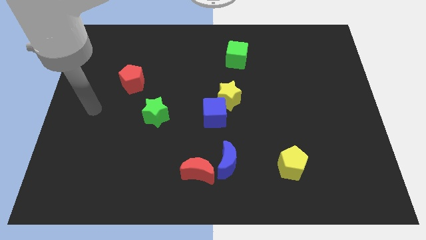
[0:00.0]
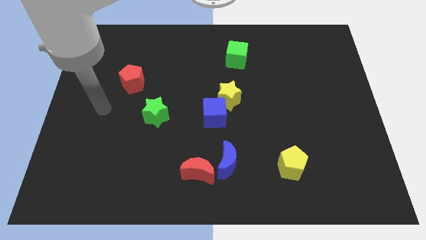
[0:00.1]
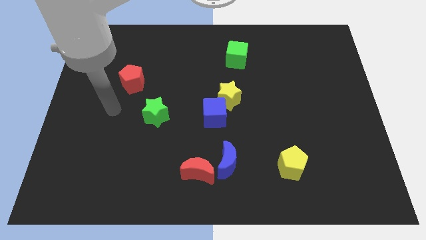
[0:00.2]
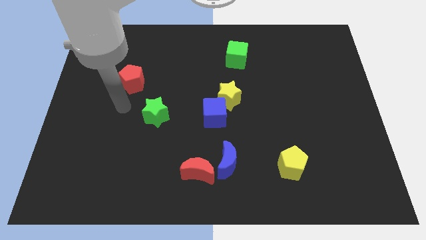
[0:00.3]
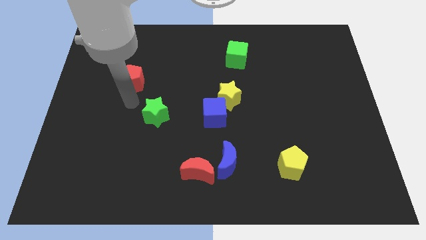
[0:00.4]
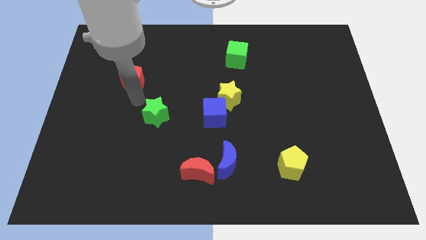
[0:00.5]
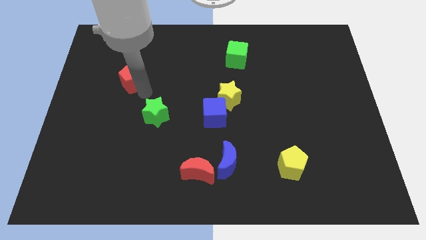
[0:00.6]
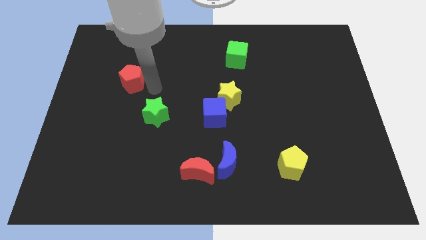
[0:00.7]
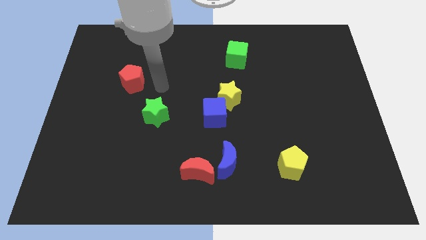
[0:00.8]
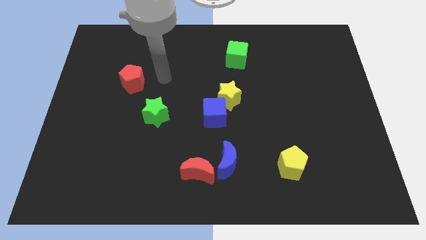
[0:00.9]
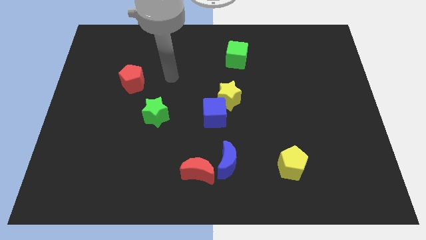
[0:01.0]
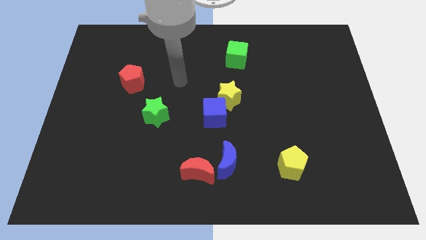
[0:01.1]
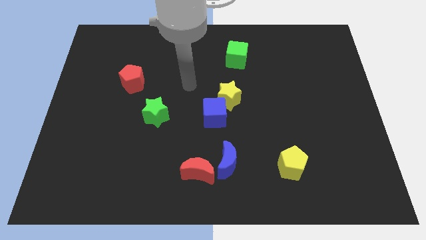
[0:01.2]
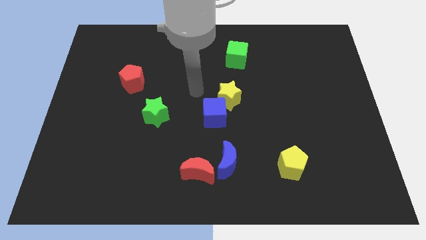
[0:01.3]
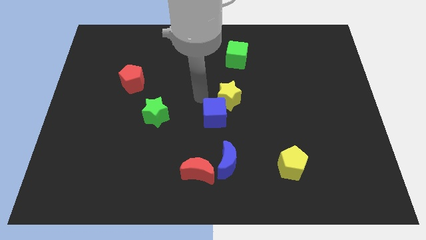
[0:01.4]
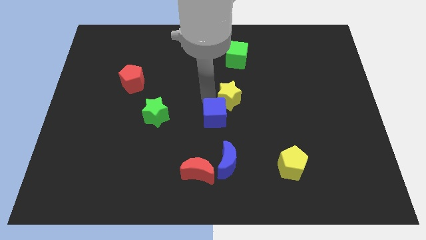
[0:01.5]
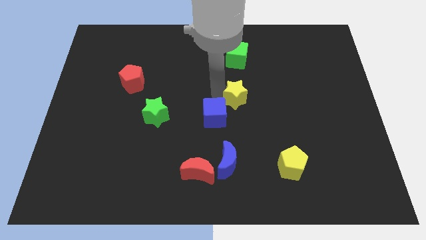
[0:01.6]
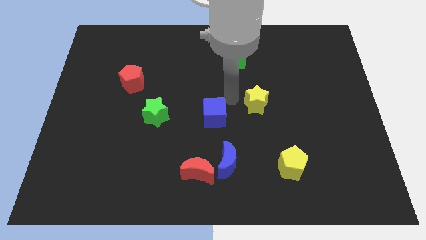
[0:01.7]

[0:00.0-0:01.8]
move the blue cube away from the yellow star

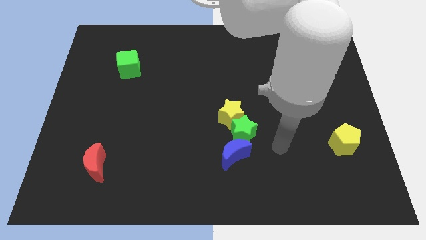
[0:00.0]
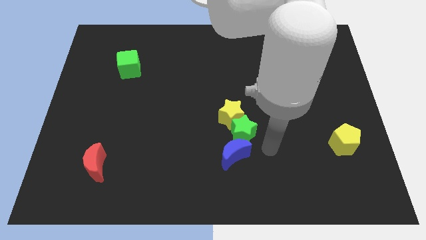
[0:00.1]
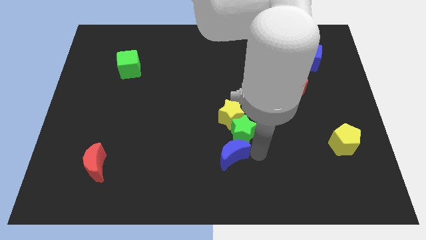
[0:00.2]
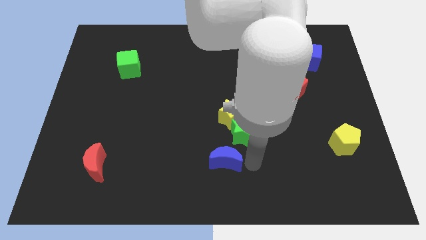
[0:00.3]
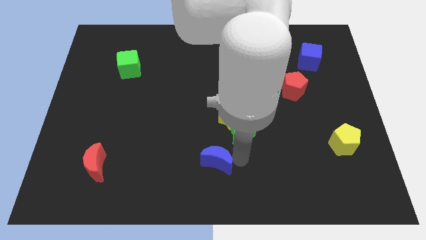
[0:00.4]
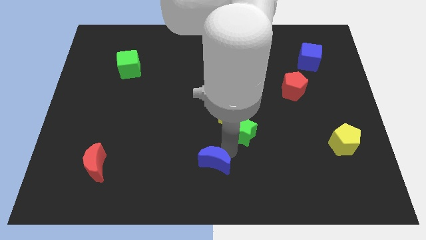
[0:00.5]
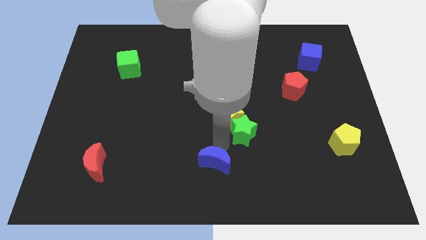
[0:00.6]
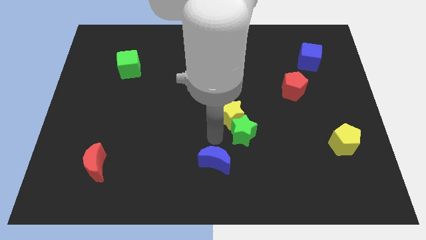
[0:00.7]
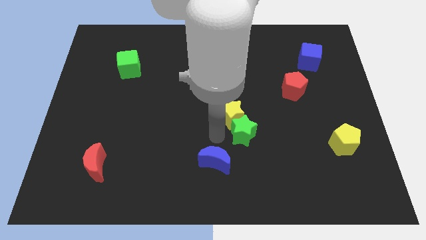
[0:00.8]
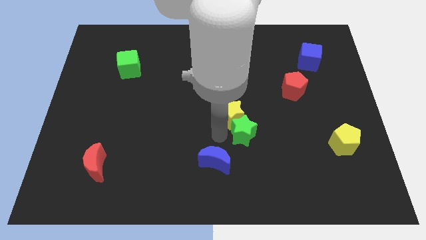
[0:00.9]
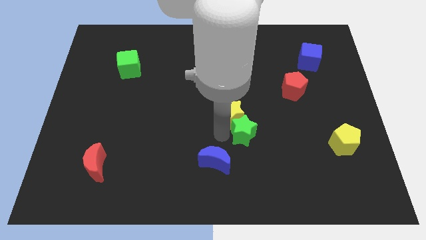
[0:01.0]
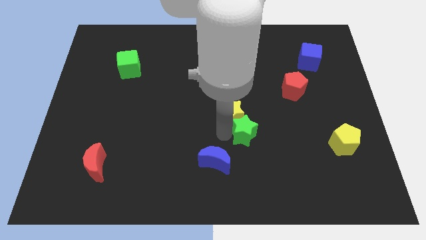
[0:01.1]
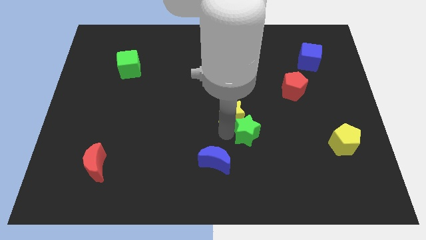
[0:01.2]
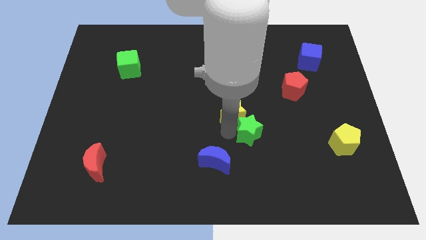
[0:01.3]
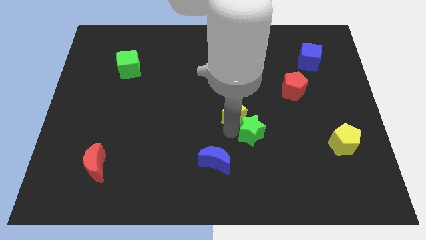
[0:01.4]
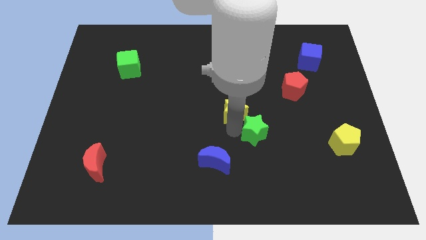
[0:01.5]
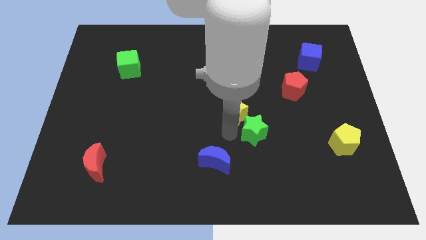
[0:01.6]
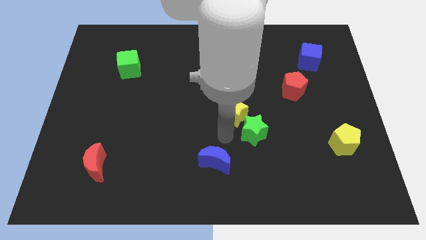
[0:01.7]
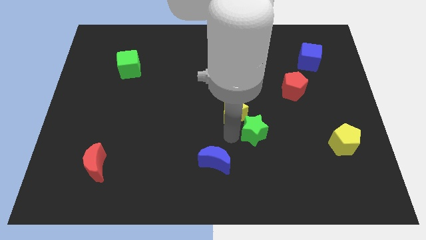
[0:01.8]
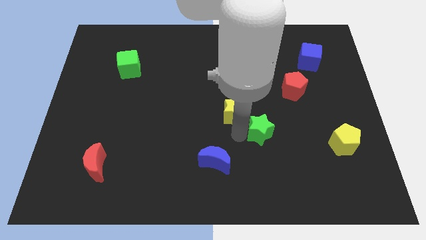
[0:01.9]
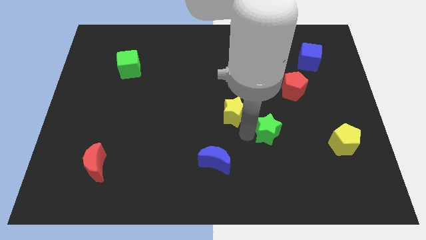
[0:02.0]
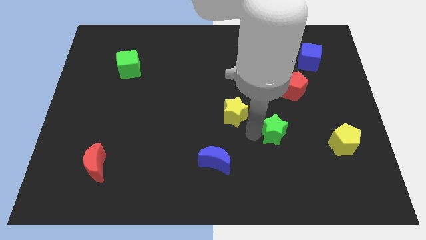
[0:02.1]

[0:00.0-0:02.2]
separate the green star from the yellow star and blue moon

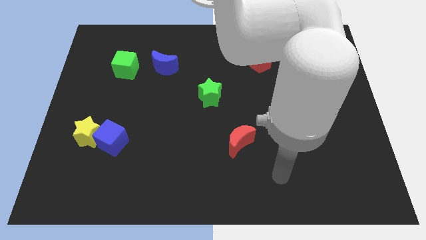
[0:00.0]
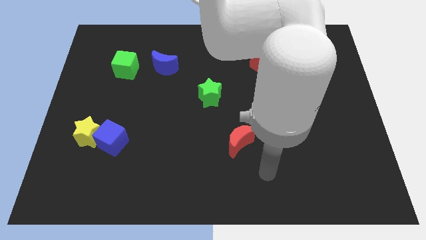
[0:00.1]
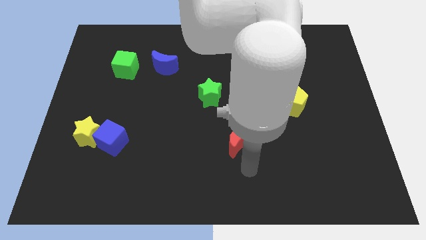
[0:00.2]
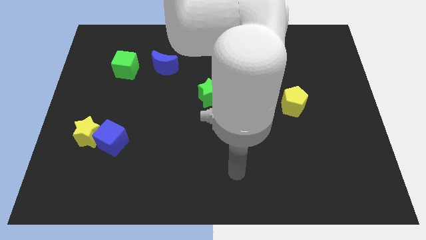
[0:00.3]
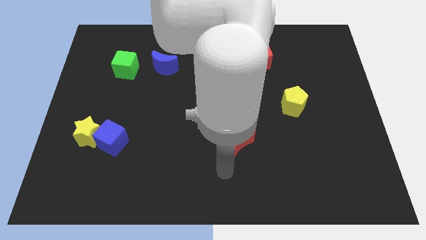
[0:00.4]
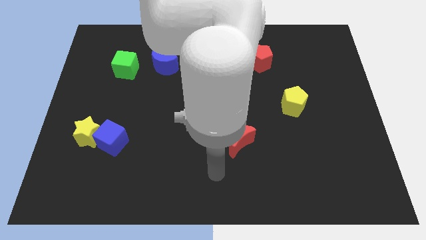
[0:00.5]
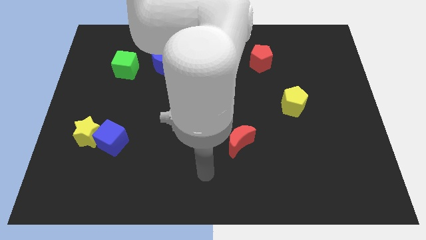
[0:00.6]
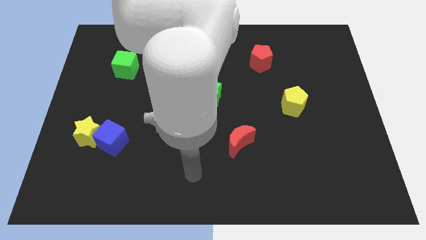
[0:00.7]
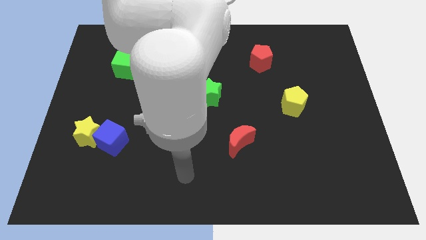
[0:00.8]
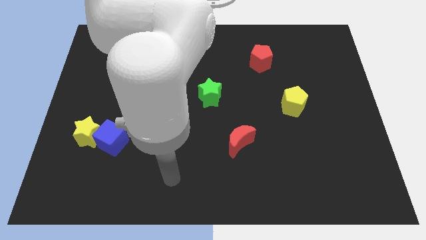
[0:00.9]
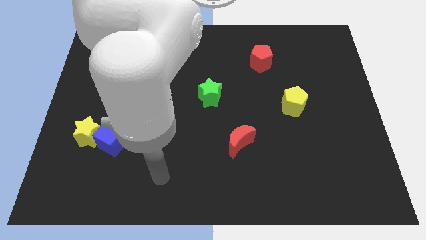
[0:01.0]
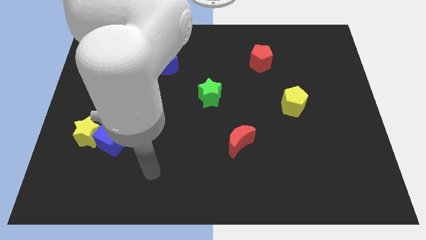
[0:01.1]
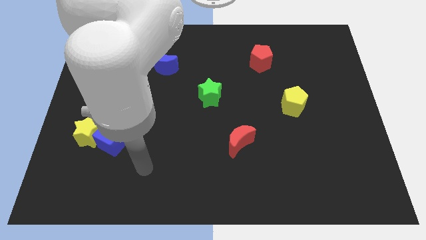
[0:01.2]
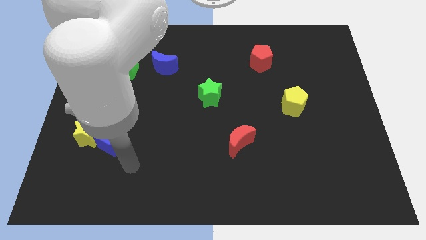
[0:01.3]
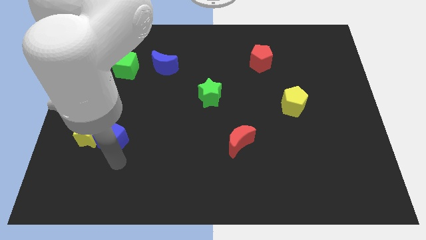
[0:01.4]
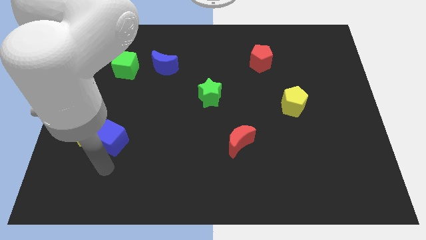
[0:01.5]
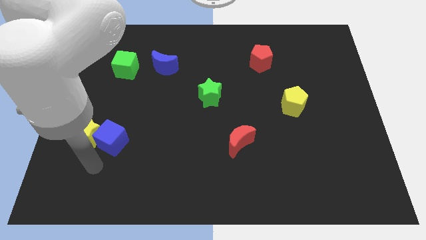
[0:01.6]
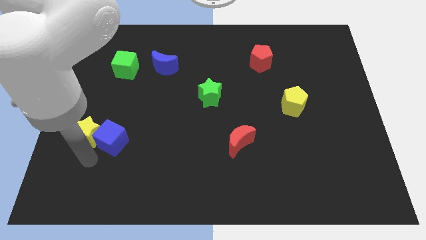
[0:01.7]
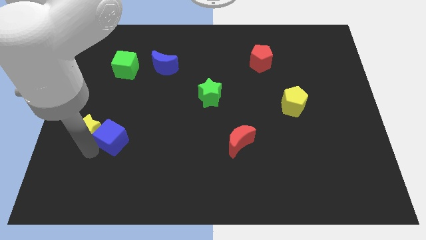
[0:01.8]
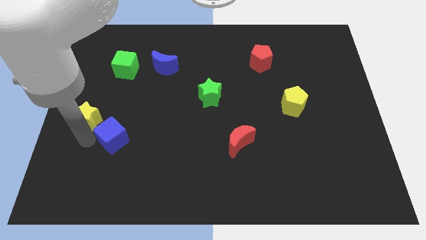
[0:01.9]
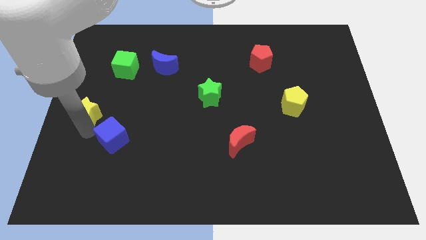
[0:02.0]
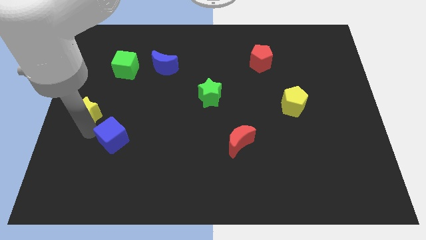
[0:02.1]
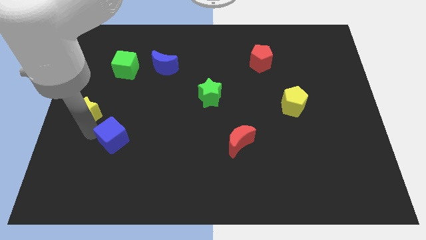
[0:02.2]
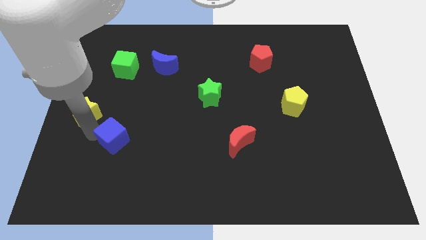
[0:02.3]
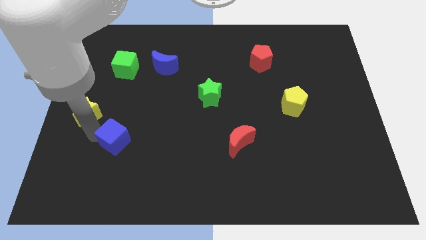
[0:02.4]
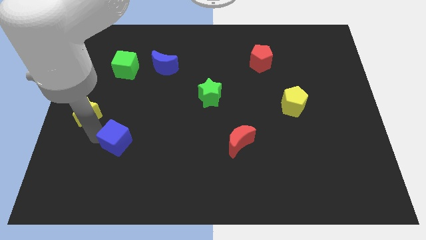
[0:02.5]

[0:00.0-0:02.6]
pull the blue cube apart from the yellow star

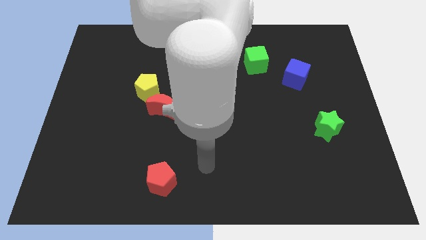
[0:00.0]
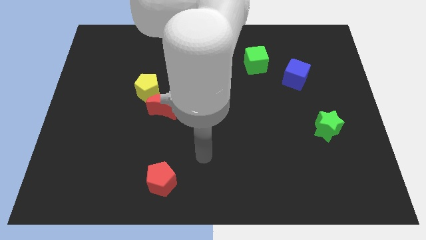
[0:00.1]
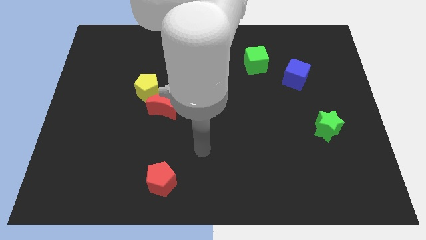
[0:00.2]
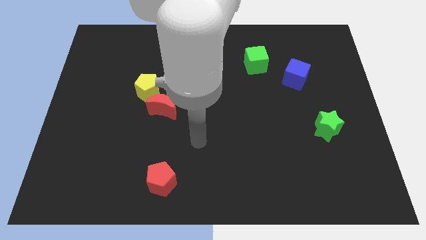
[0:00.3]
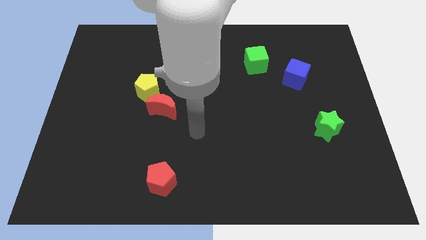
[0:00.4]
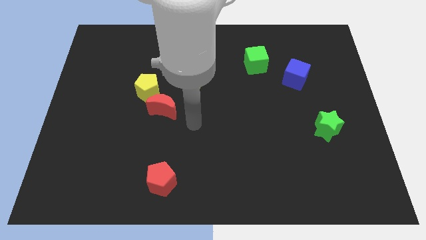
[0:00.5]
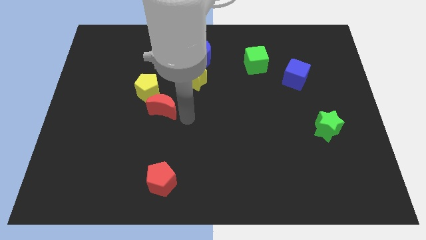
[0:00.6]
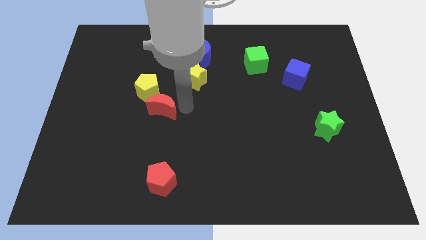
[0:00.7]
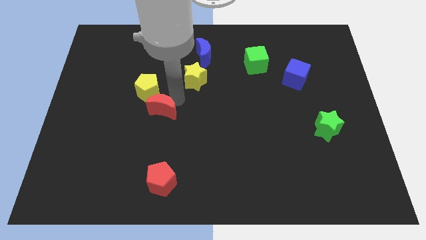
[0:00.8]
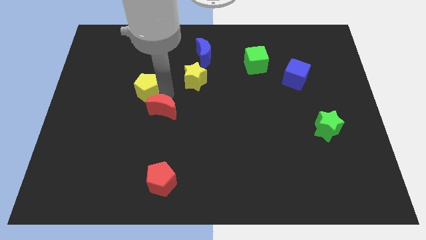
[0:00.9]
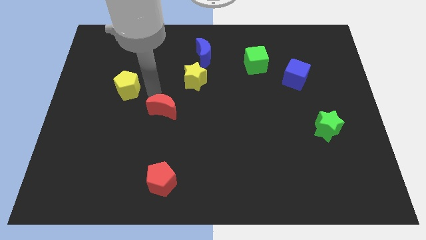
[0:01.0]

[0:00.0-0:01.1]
move the red moon away from the yellow pentagon

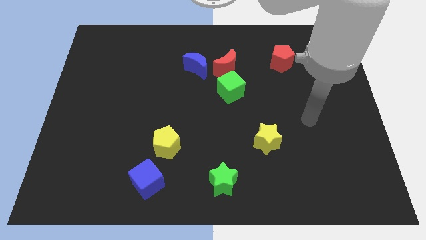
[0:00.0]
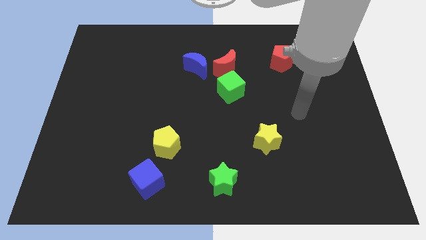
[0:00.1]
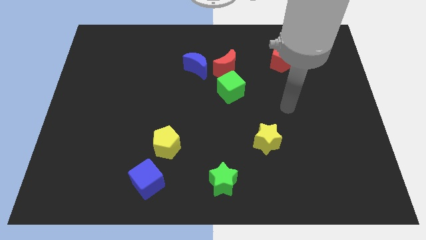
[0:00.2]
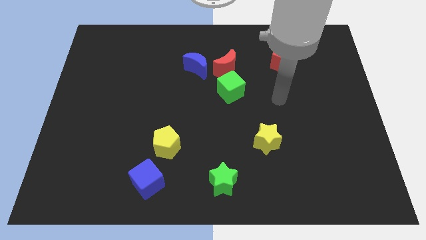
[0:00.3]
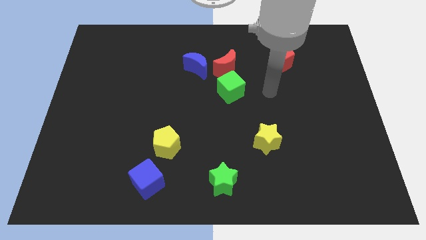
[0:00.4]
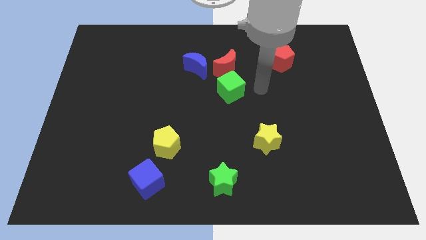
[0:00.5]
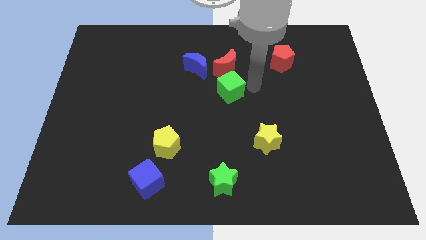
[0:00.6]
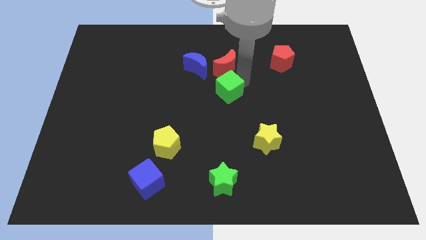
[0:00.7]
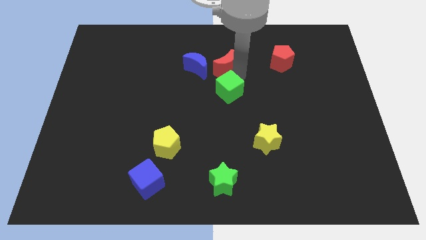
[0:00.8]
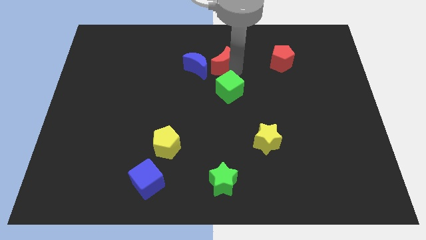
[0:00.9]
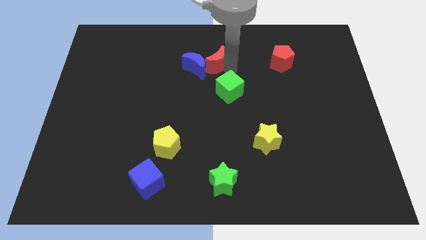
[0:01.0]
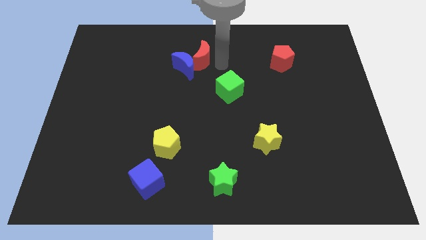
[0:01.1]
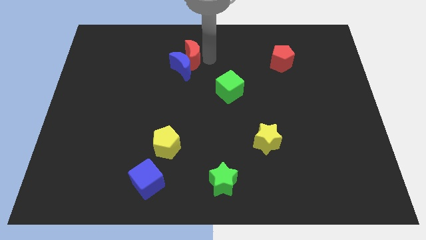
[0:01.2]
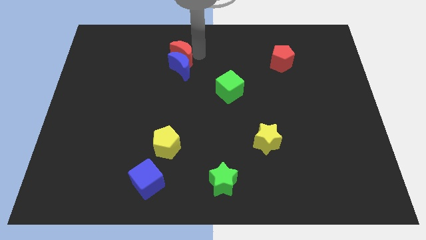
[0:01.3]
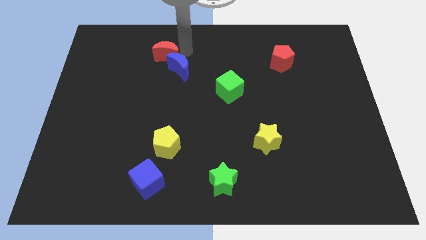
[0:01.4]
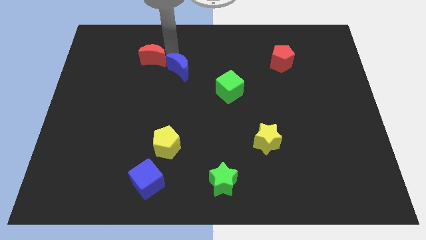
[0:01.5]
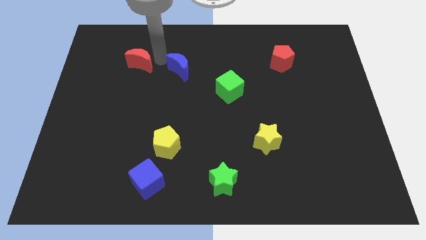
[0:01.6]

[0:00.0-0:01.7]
separate the blue moon from the red moon
